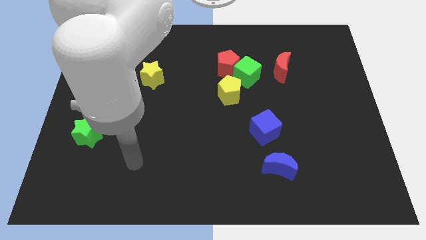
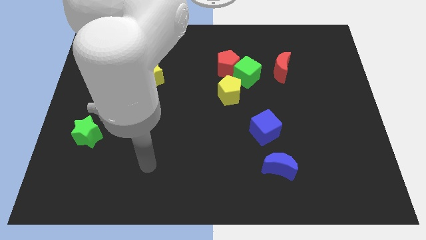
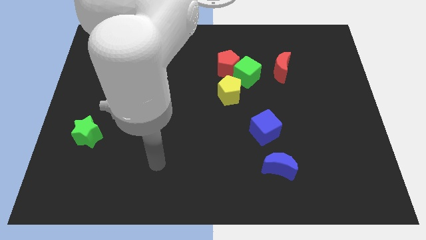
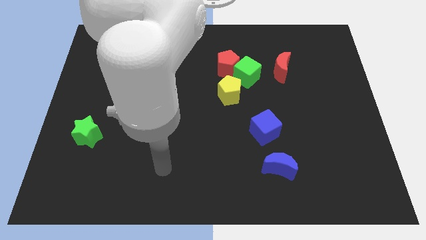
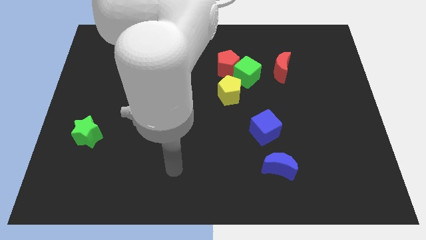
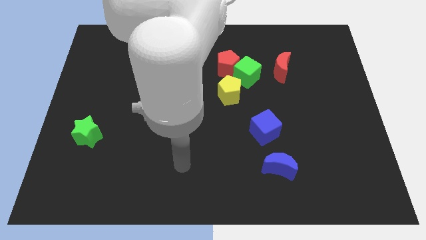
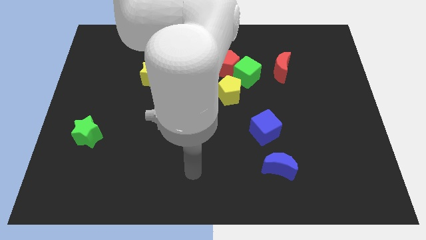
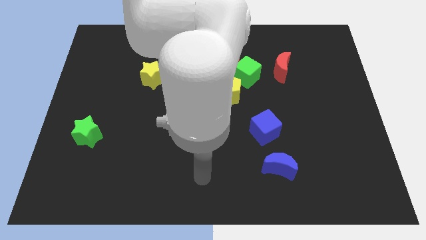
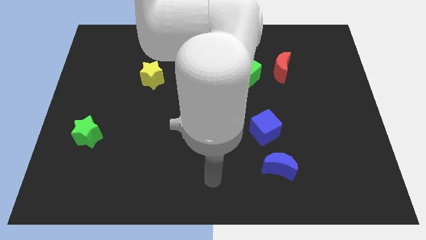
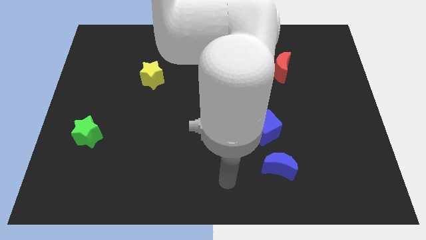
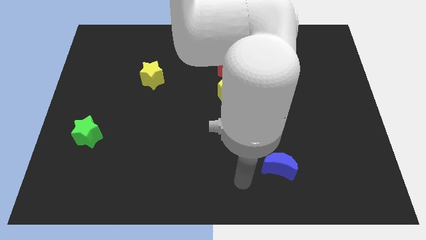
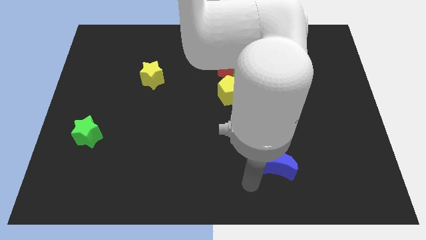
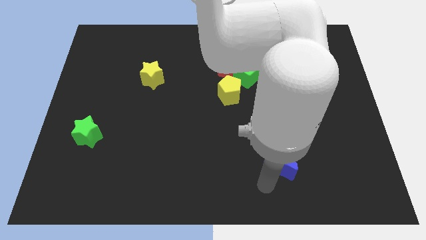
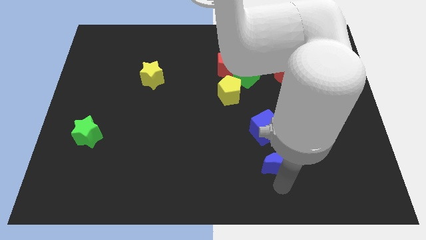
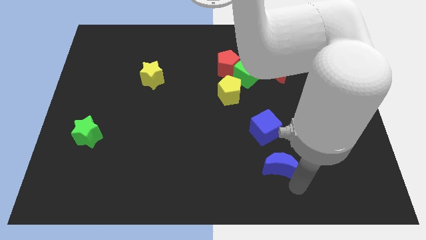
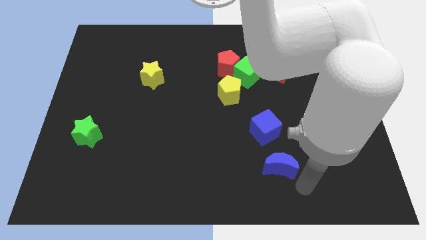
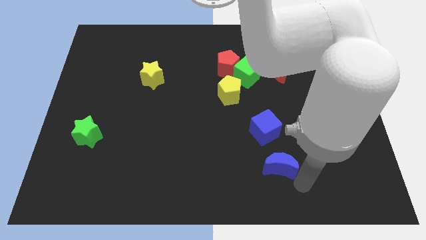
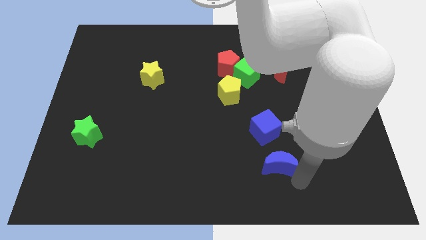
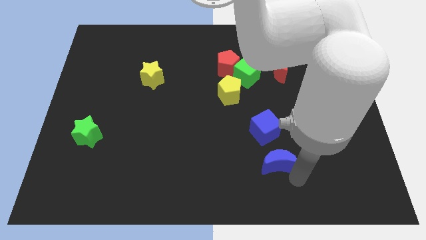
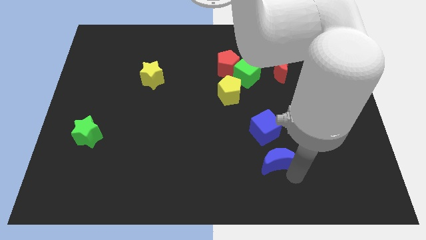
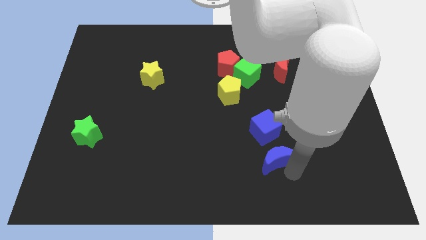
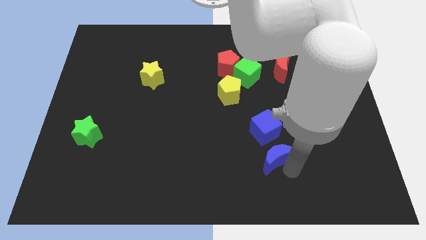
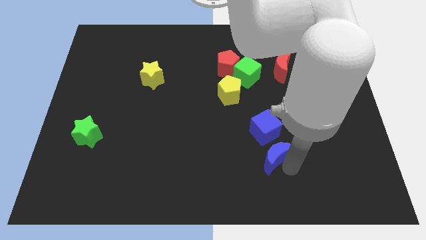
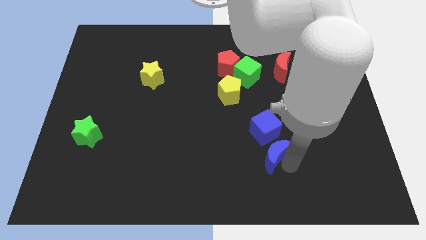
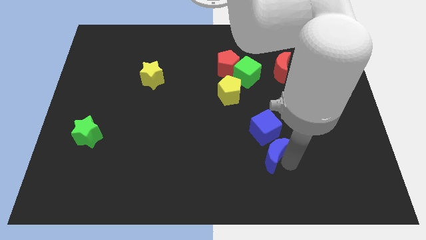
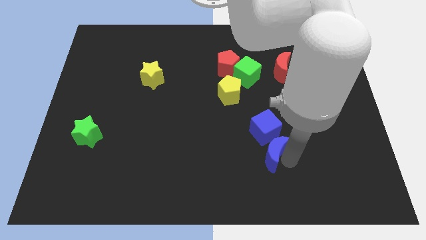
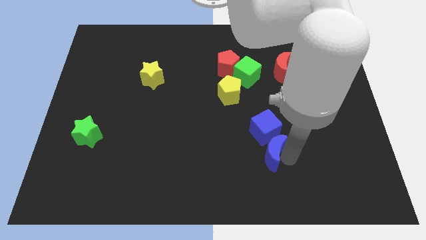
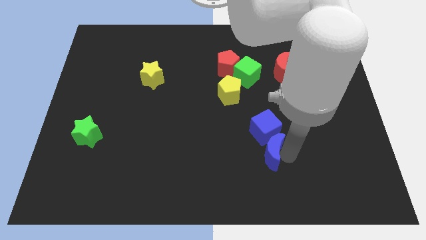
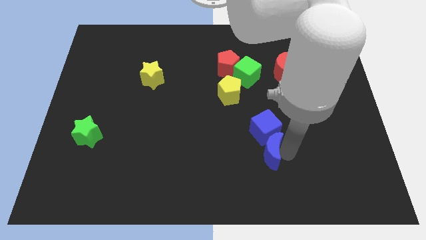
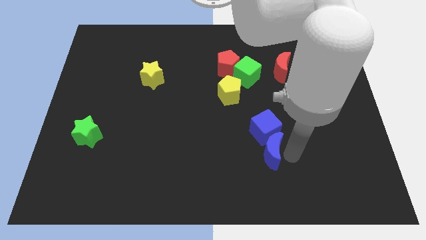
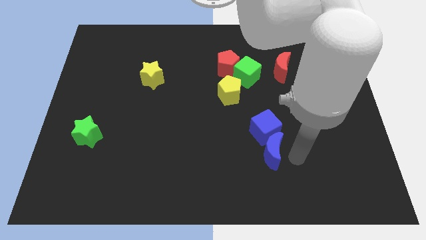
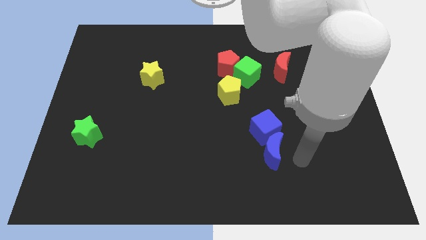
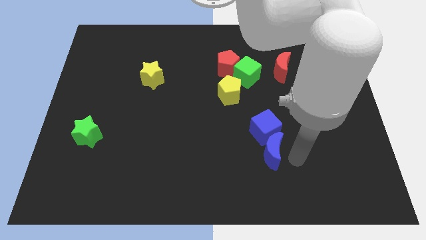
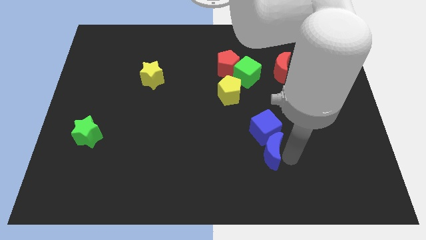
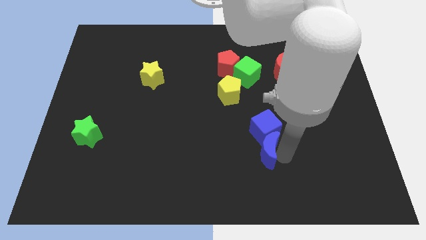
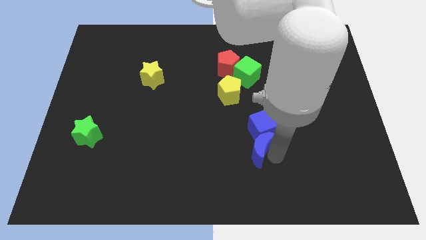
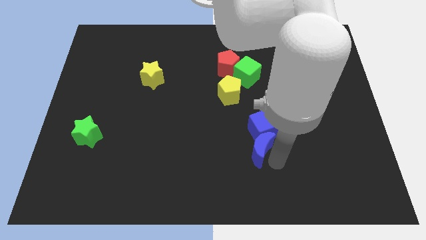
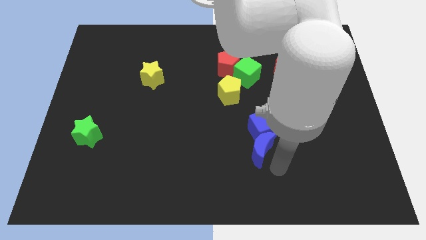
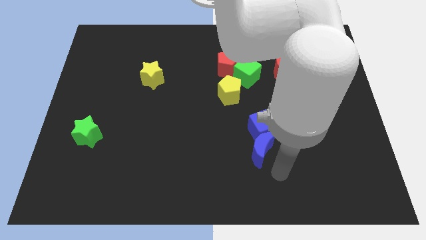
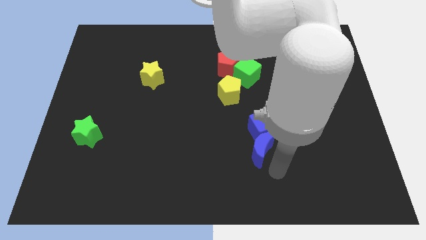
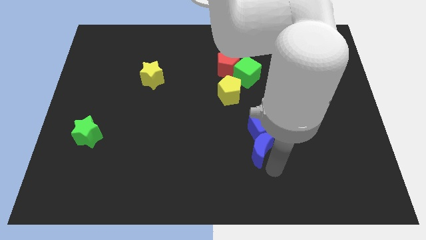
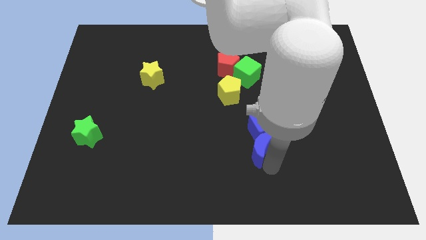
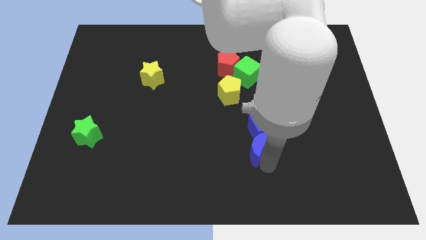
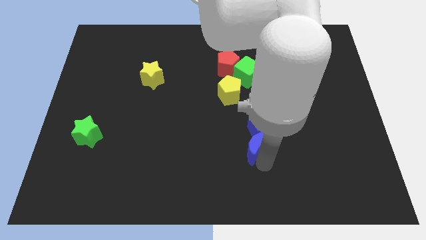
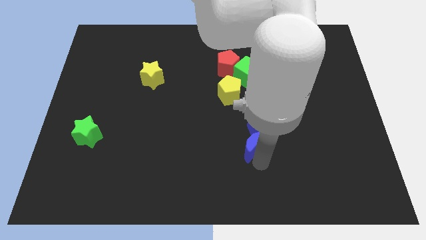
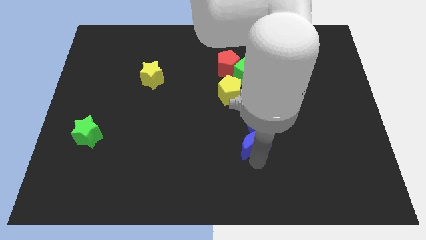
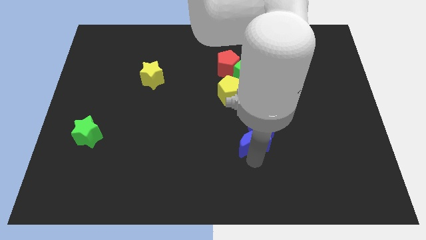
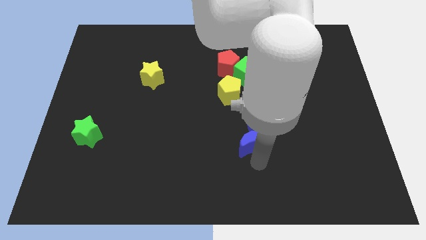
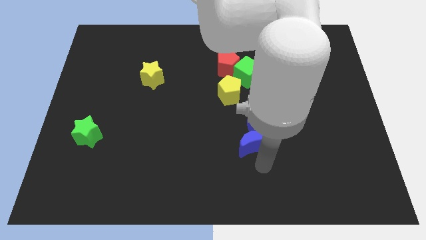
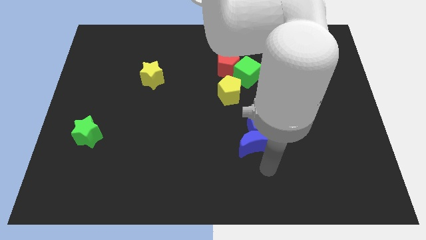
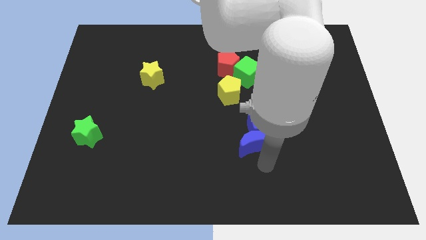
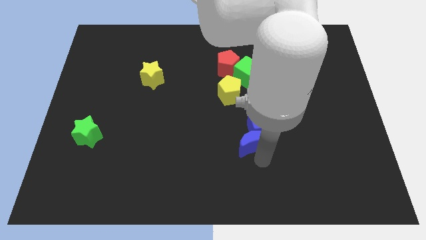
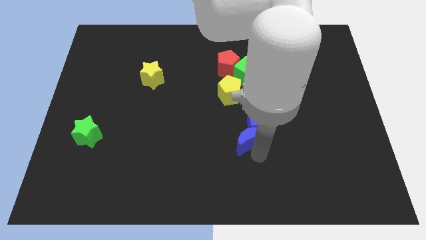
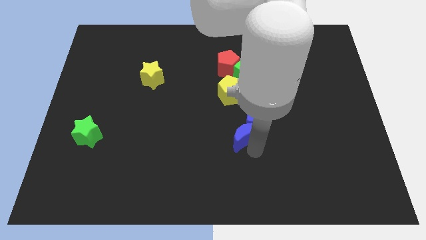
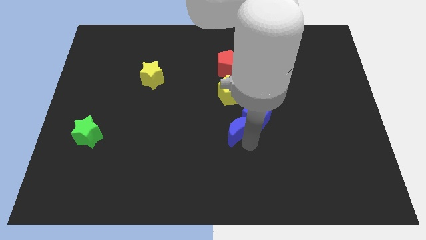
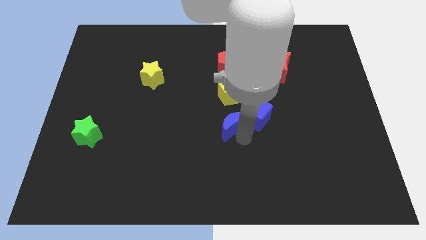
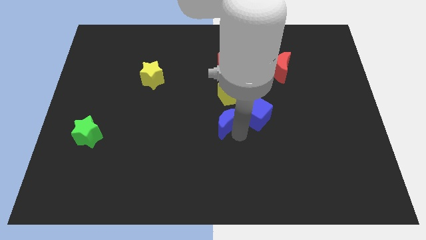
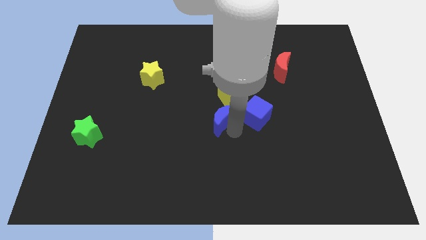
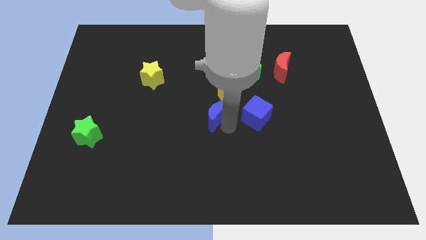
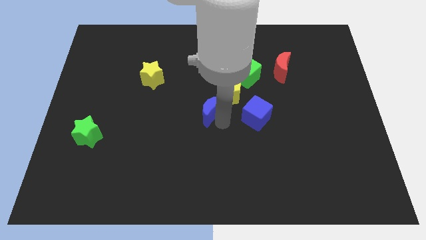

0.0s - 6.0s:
move the blue moon upwards and left

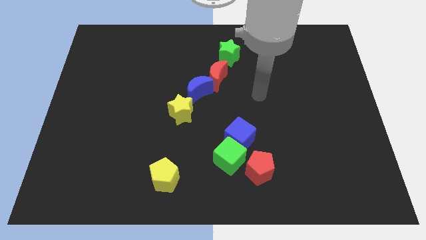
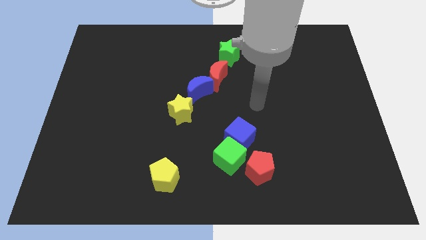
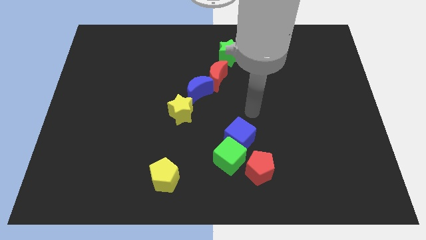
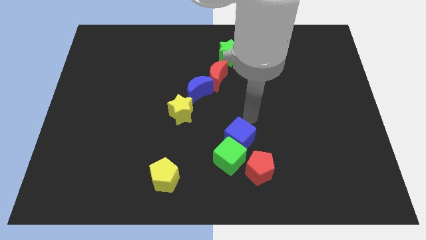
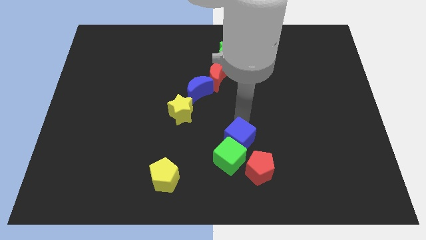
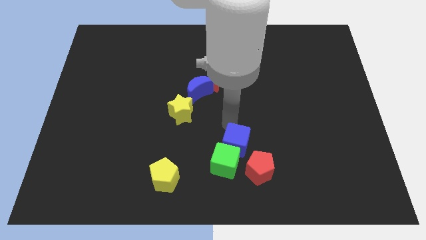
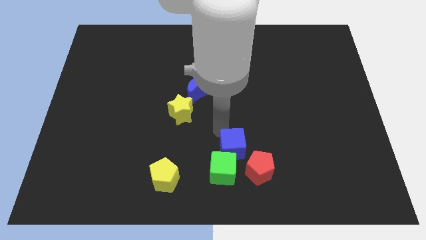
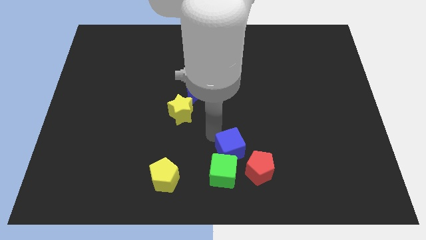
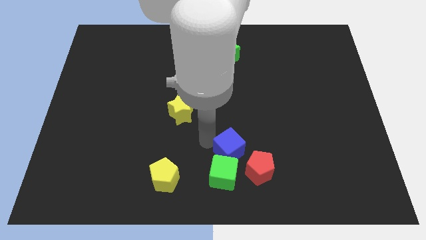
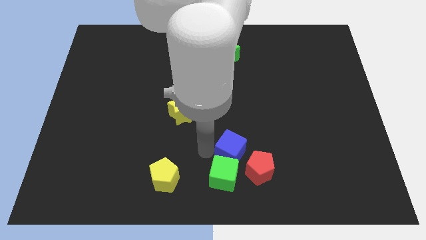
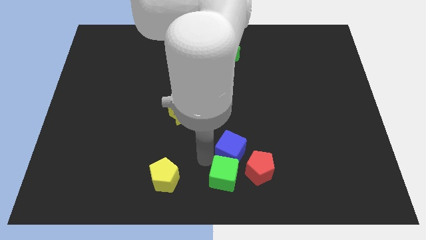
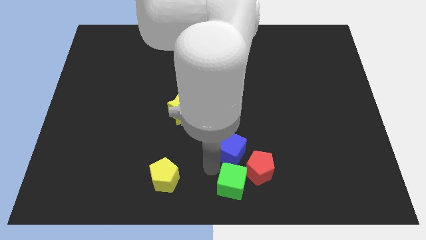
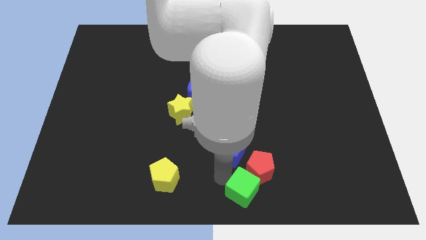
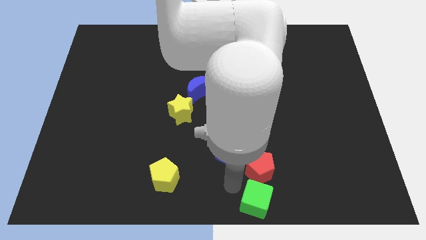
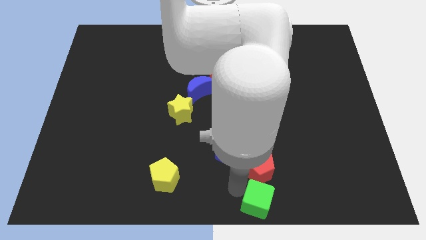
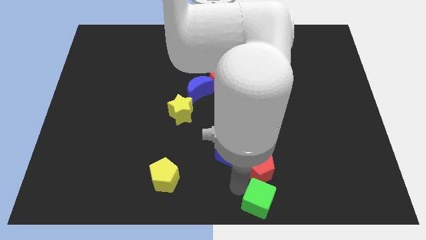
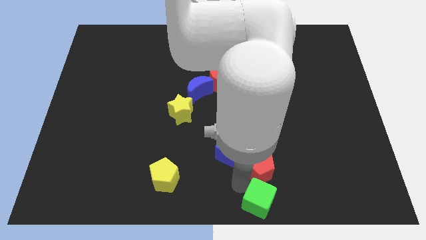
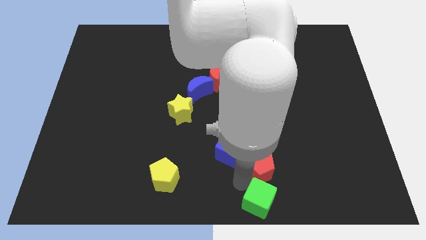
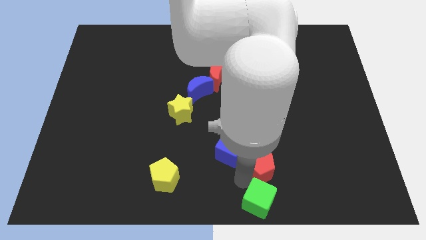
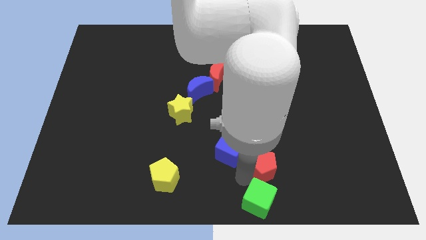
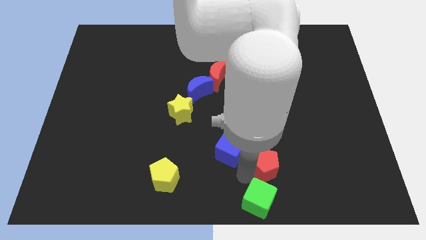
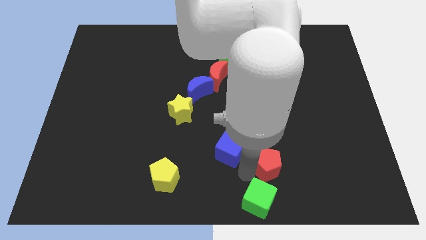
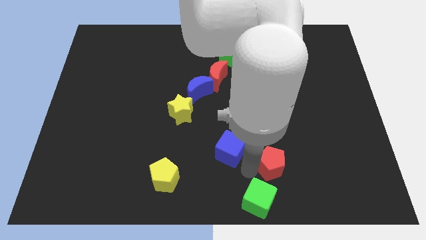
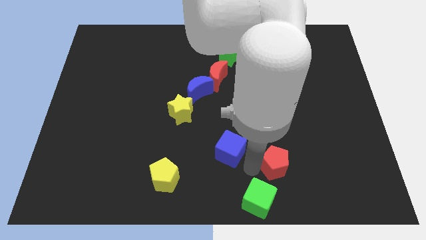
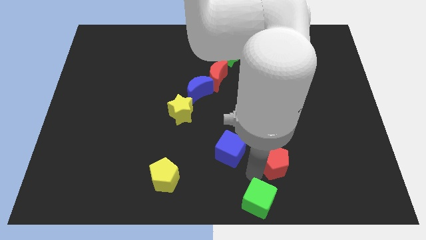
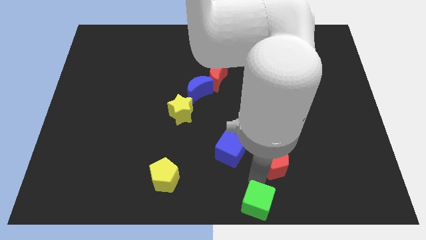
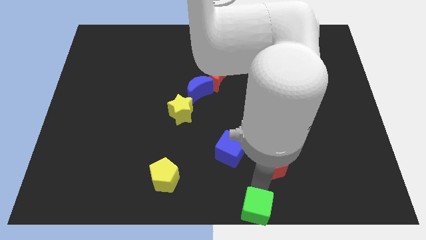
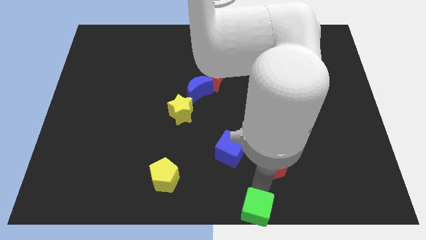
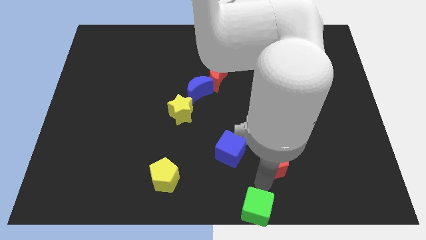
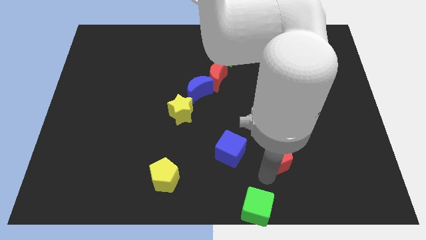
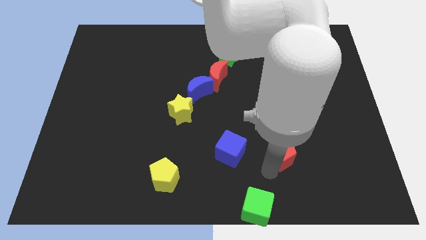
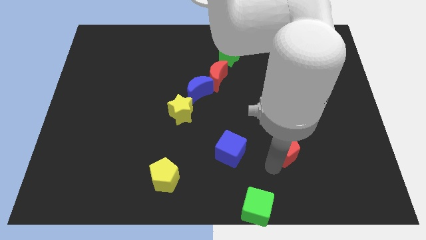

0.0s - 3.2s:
slightly move the red pentagon up and to the right
